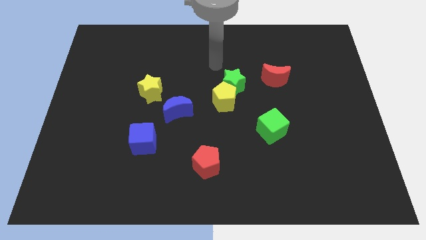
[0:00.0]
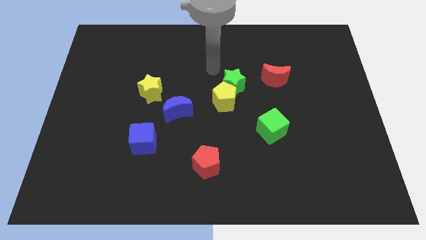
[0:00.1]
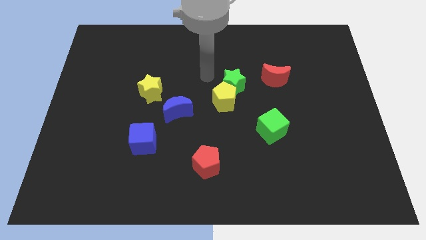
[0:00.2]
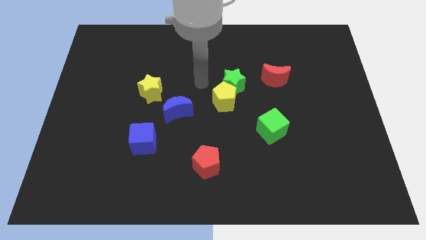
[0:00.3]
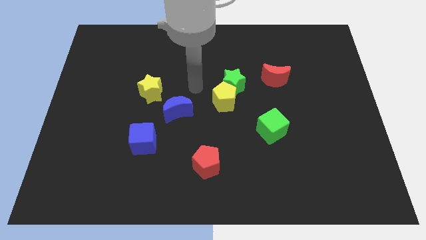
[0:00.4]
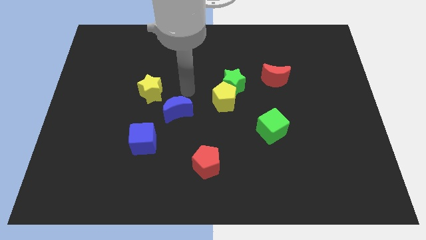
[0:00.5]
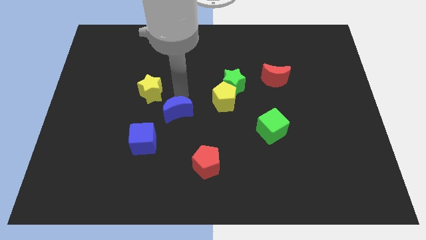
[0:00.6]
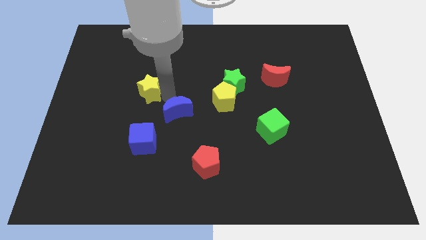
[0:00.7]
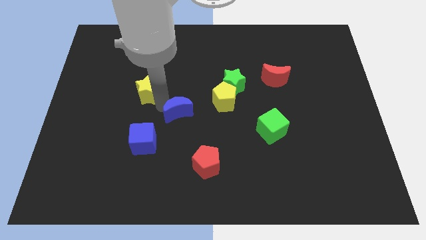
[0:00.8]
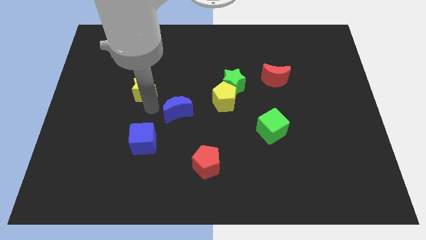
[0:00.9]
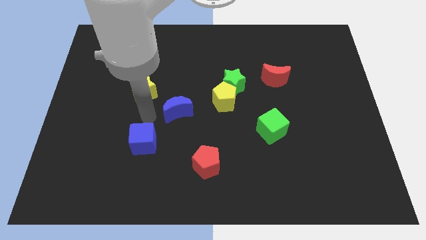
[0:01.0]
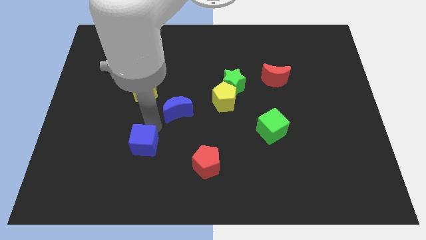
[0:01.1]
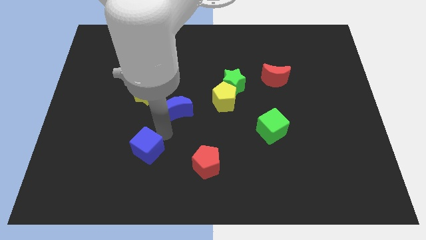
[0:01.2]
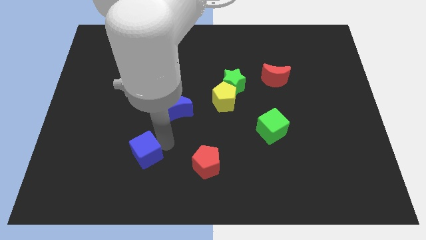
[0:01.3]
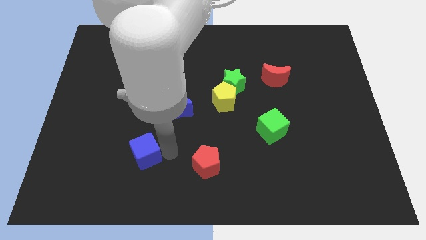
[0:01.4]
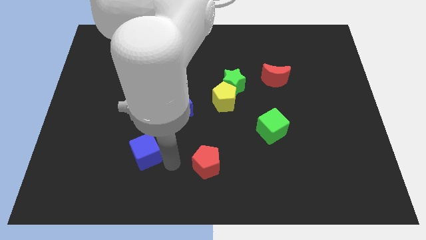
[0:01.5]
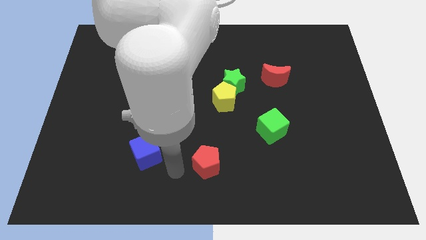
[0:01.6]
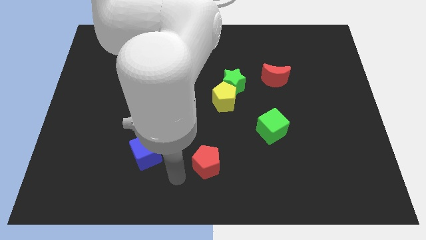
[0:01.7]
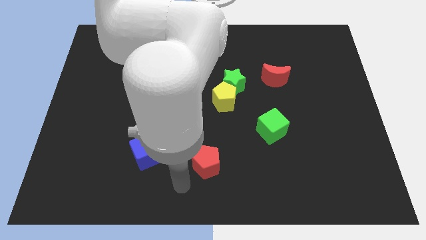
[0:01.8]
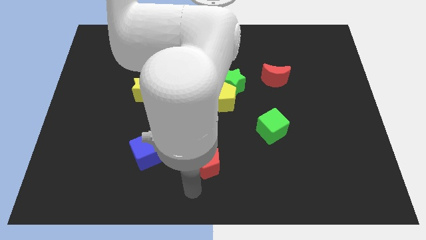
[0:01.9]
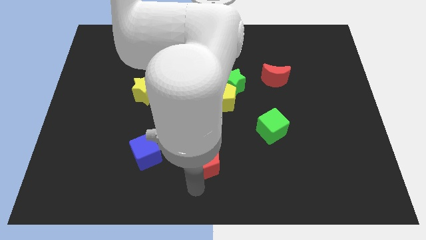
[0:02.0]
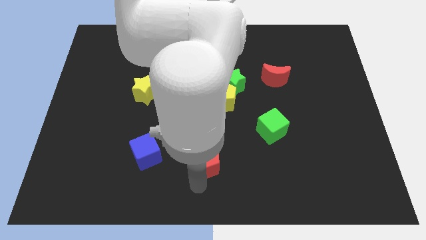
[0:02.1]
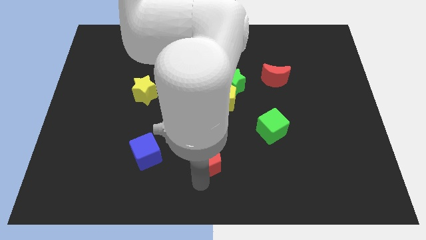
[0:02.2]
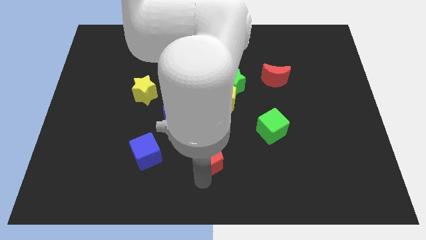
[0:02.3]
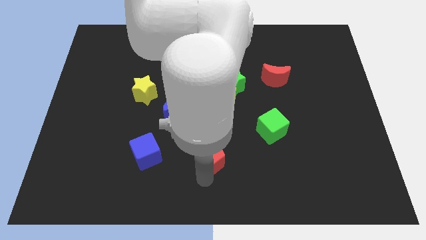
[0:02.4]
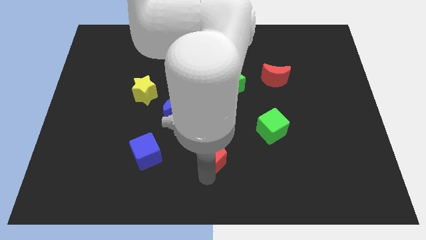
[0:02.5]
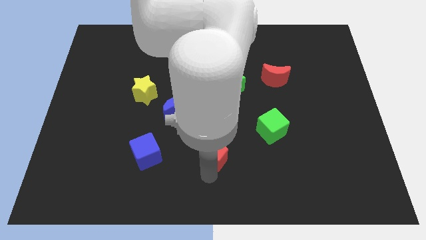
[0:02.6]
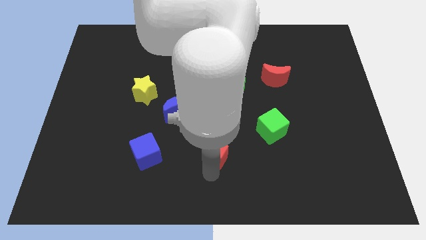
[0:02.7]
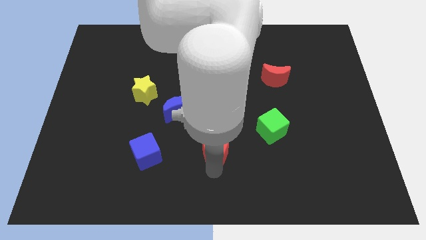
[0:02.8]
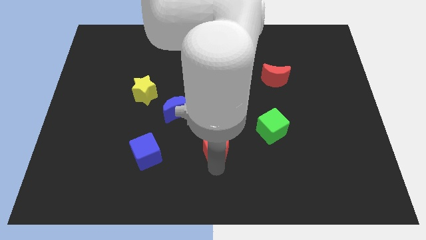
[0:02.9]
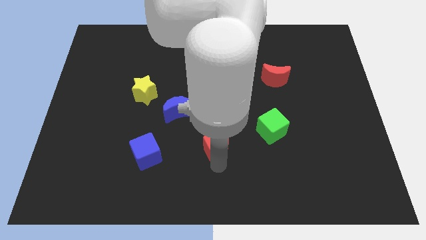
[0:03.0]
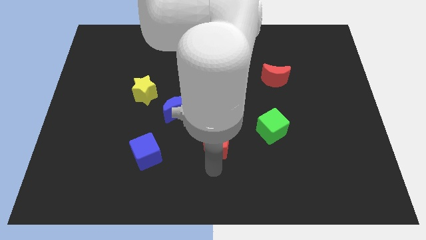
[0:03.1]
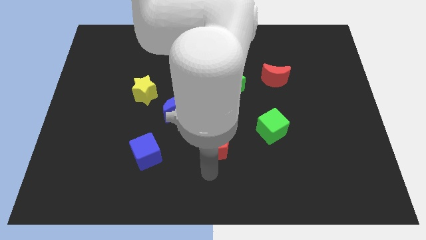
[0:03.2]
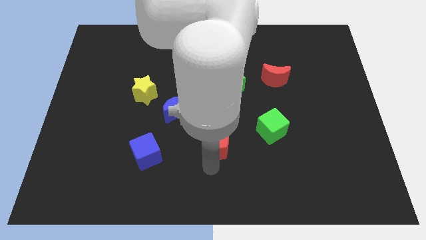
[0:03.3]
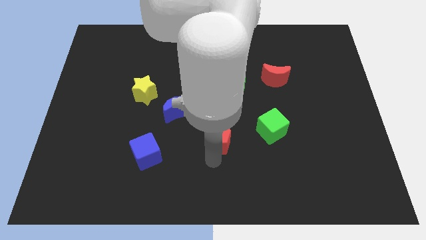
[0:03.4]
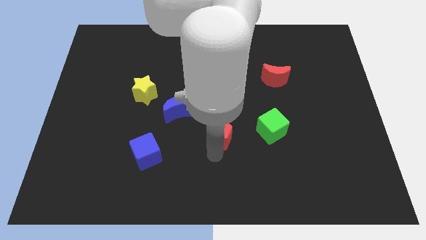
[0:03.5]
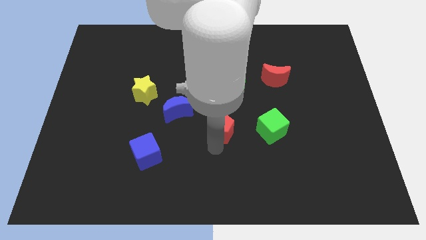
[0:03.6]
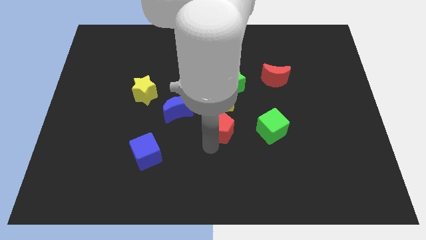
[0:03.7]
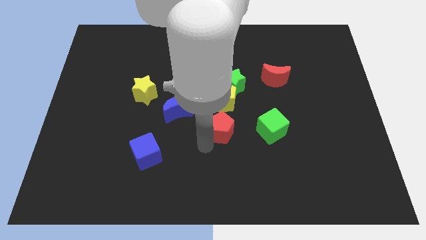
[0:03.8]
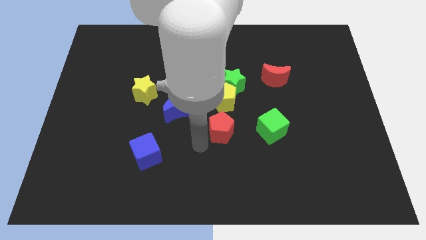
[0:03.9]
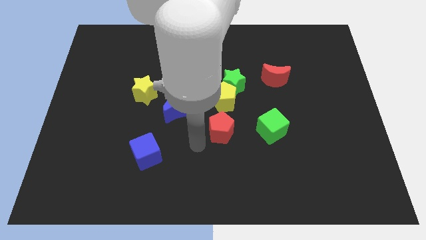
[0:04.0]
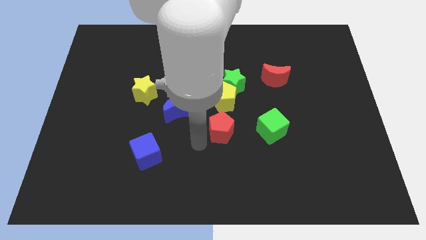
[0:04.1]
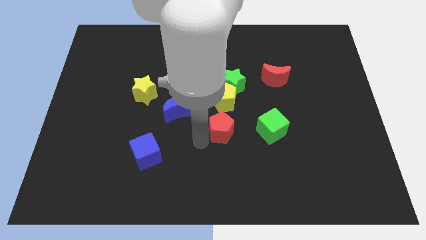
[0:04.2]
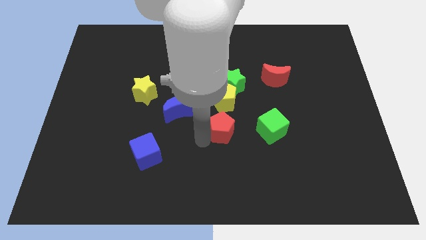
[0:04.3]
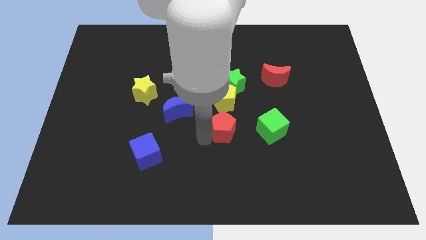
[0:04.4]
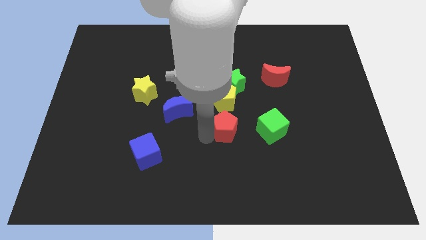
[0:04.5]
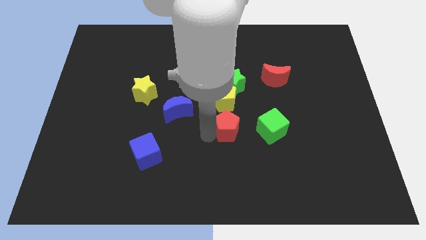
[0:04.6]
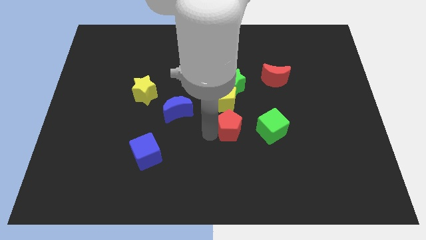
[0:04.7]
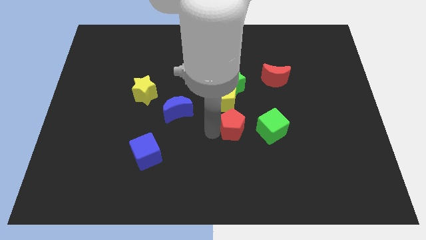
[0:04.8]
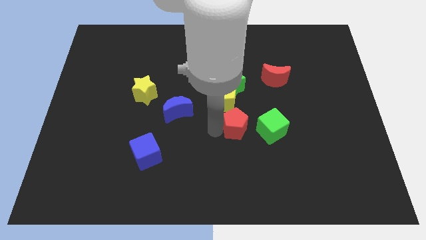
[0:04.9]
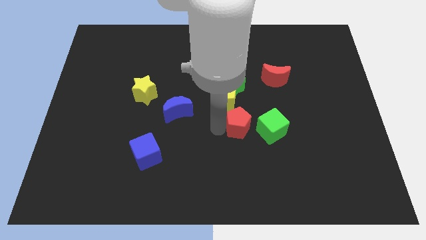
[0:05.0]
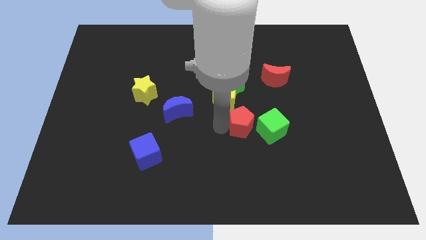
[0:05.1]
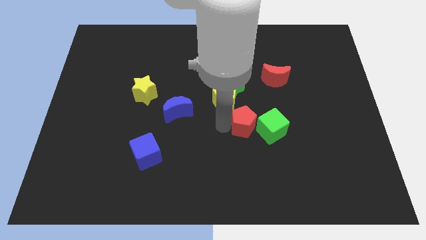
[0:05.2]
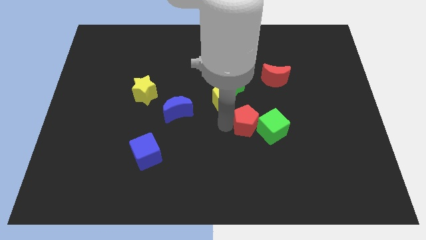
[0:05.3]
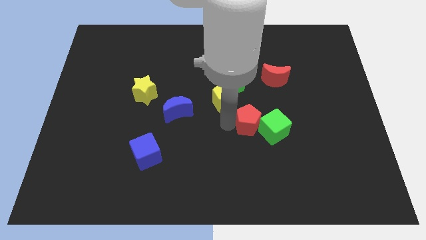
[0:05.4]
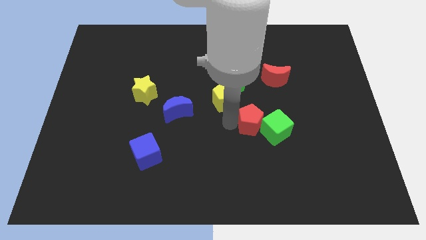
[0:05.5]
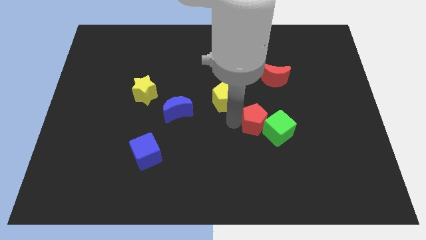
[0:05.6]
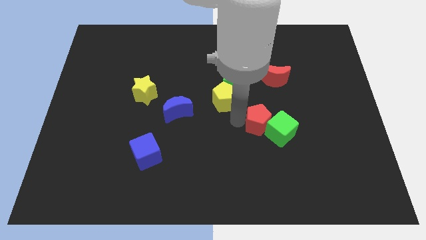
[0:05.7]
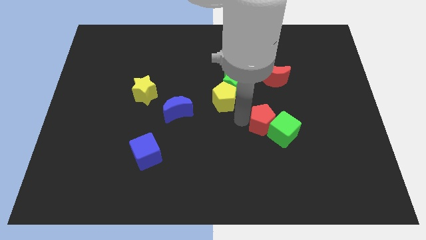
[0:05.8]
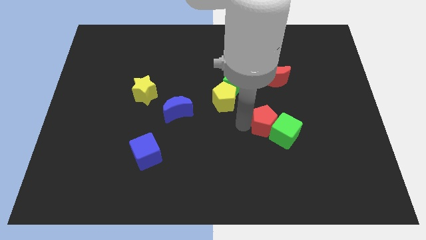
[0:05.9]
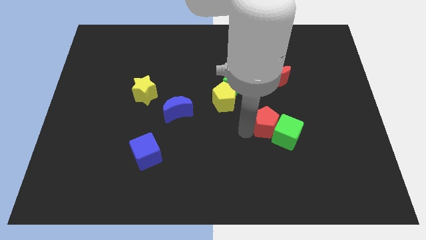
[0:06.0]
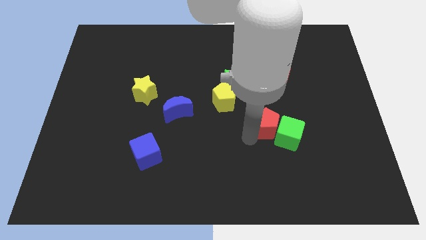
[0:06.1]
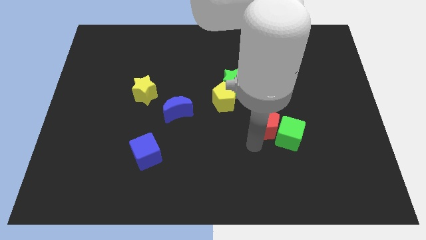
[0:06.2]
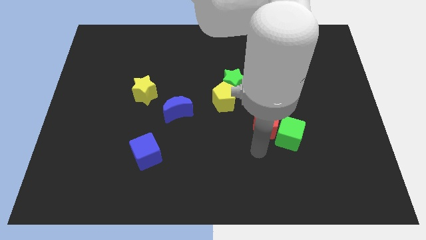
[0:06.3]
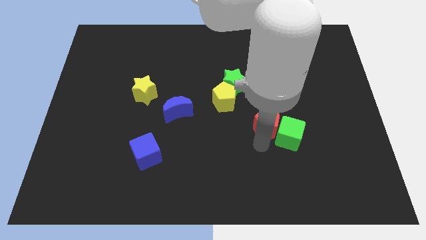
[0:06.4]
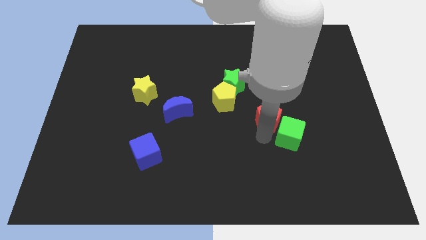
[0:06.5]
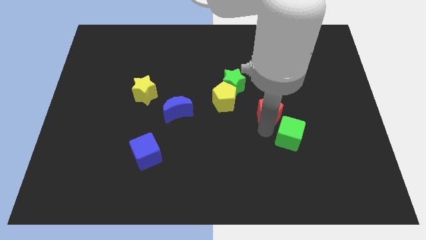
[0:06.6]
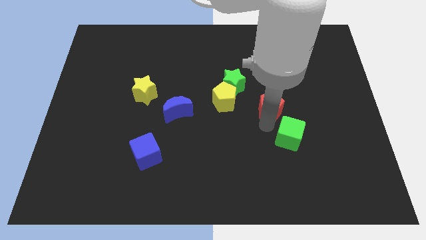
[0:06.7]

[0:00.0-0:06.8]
push the red pentagon up and right diagonally

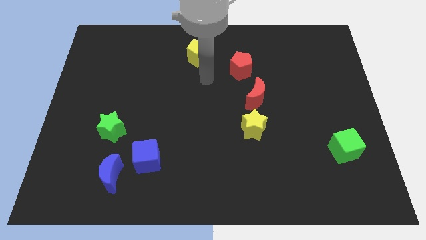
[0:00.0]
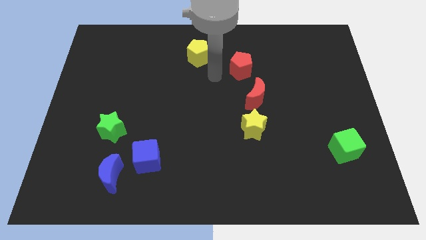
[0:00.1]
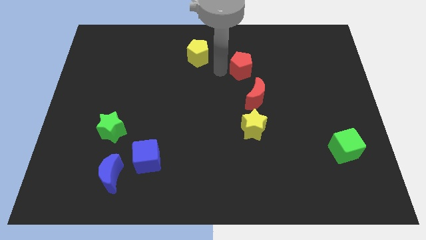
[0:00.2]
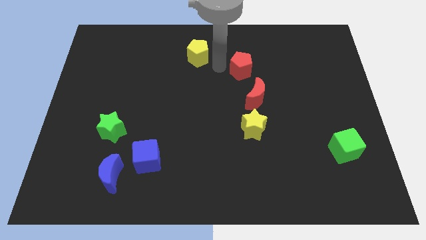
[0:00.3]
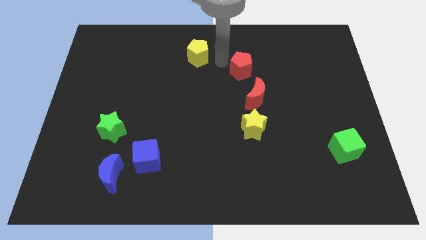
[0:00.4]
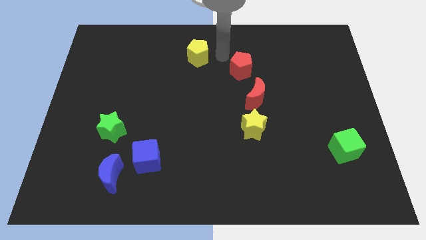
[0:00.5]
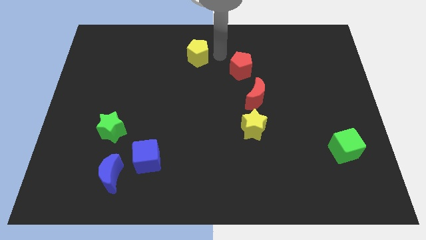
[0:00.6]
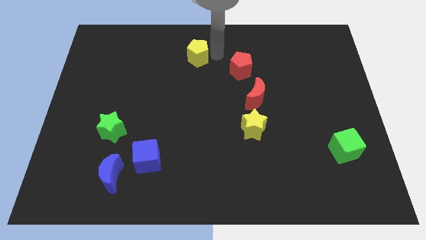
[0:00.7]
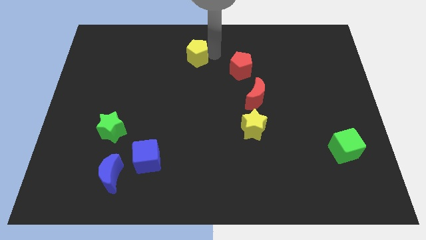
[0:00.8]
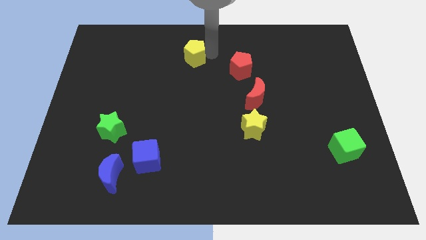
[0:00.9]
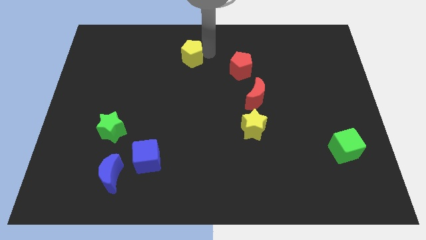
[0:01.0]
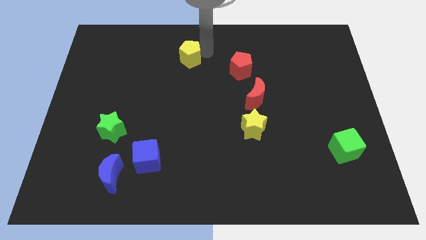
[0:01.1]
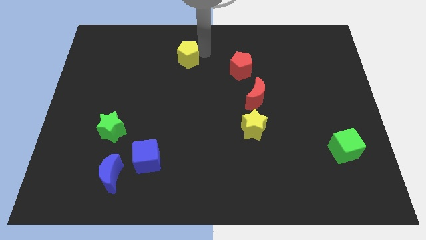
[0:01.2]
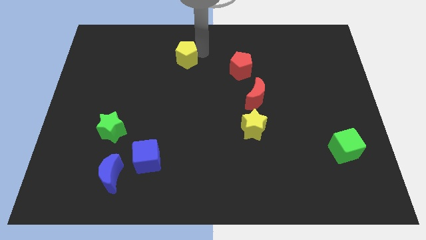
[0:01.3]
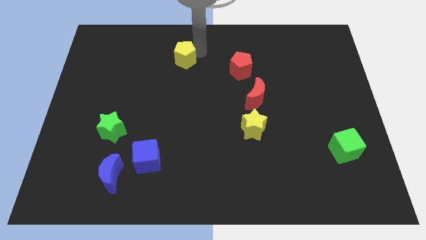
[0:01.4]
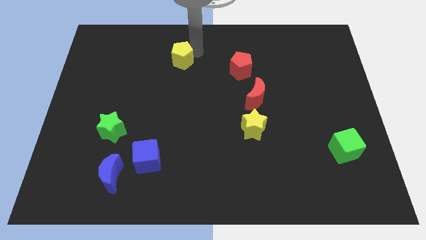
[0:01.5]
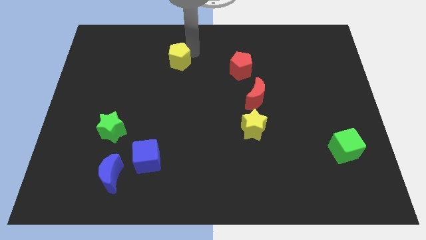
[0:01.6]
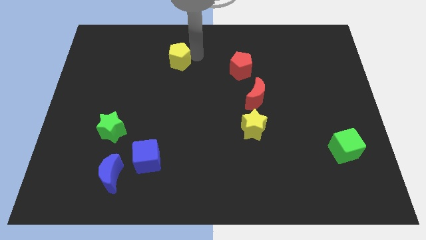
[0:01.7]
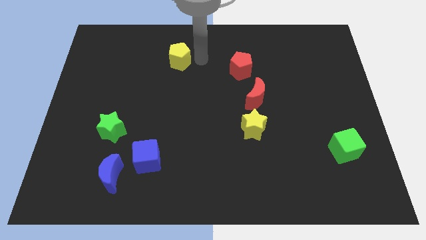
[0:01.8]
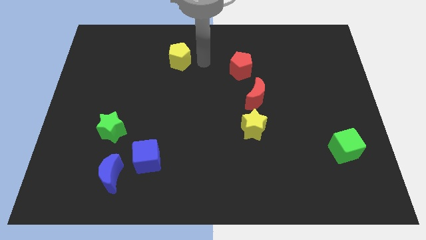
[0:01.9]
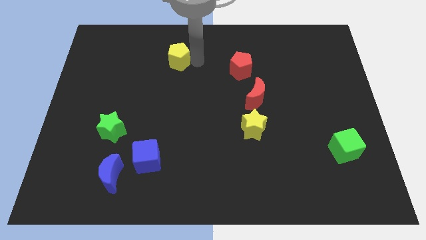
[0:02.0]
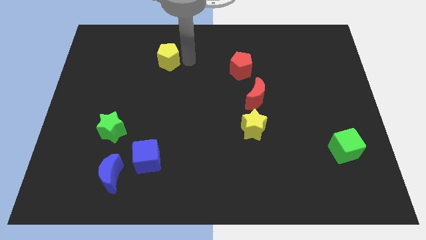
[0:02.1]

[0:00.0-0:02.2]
slide the yellow pentagon a bit to the left
